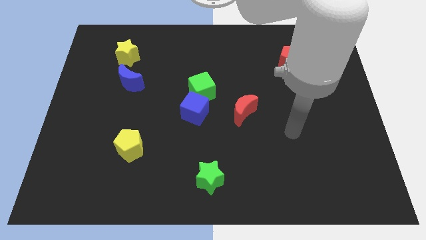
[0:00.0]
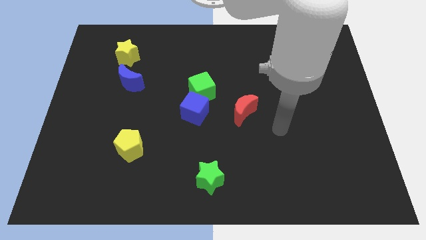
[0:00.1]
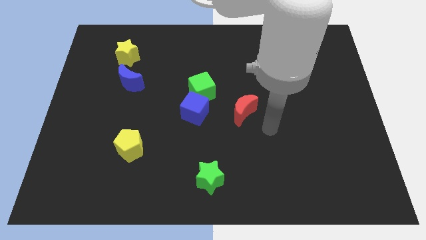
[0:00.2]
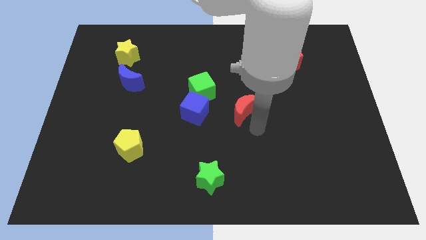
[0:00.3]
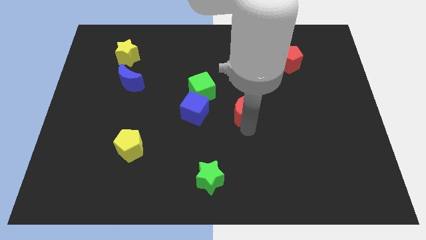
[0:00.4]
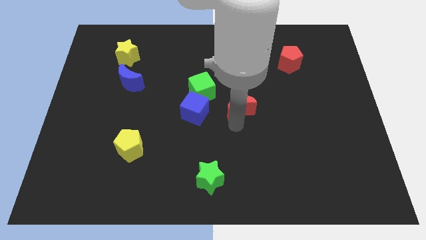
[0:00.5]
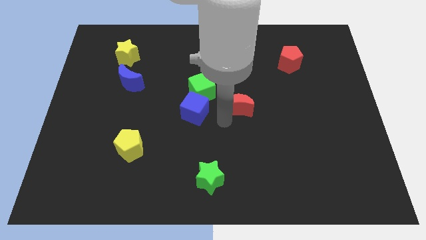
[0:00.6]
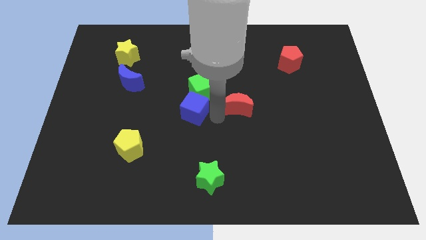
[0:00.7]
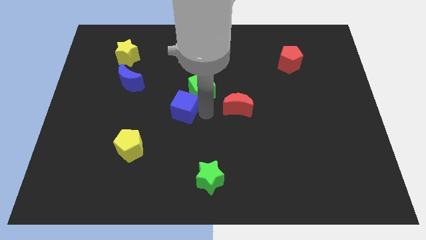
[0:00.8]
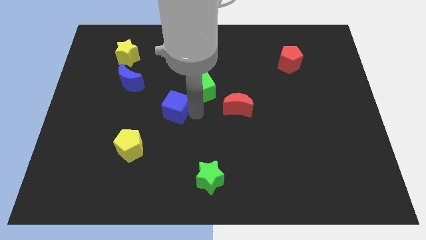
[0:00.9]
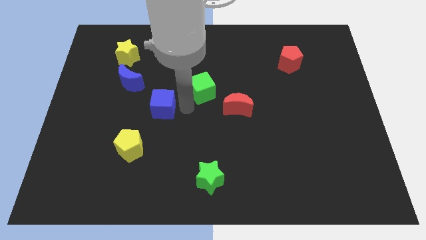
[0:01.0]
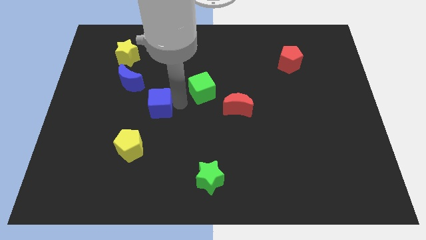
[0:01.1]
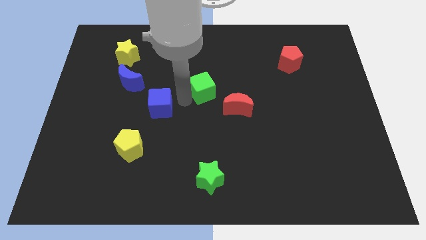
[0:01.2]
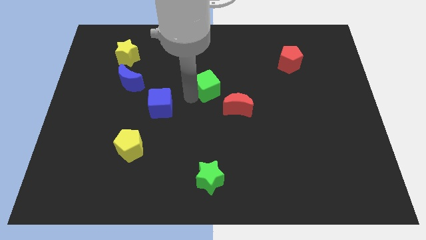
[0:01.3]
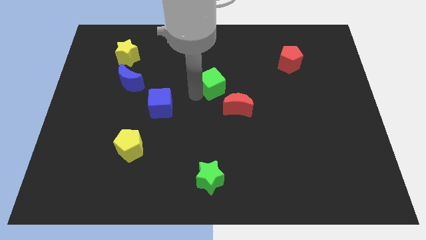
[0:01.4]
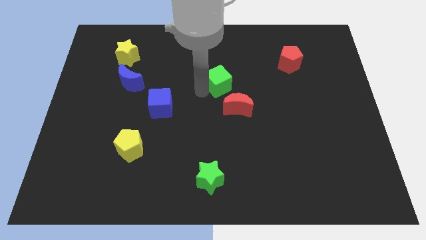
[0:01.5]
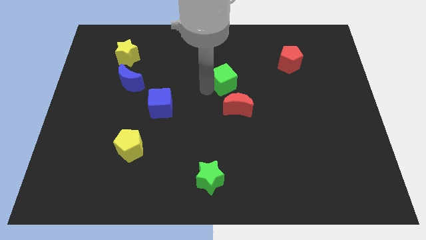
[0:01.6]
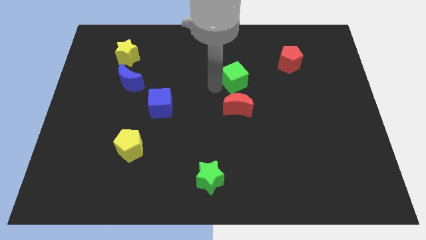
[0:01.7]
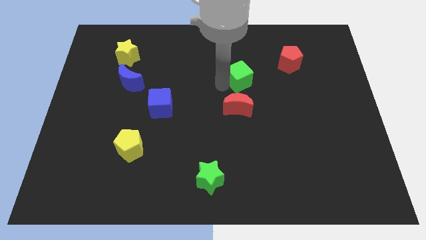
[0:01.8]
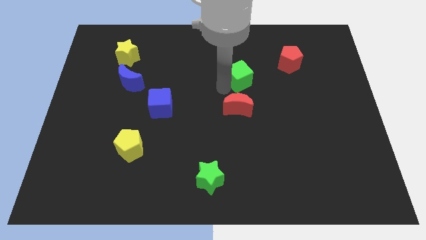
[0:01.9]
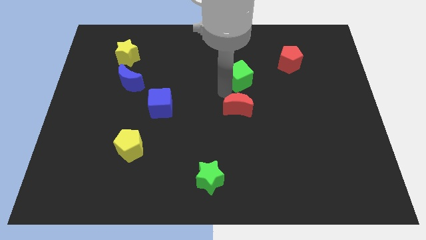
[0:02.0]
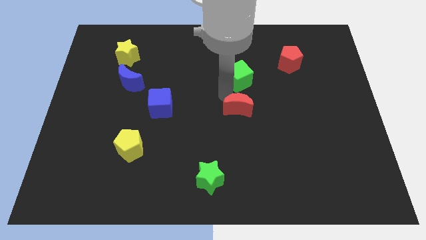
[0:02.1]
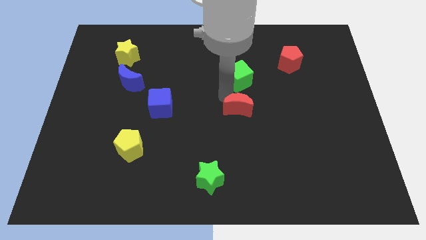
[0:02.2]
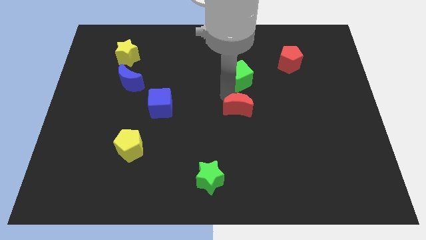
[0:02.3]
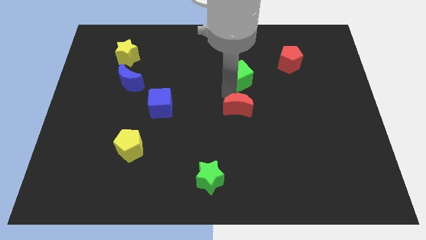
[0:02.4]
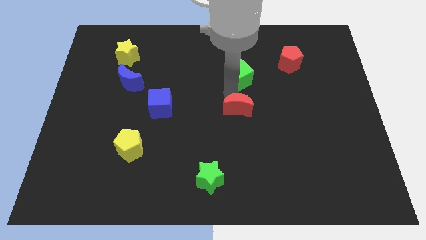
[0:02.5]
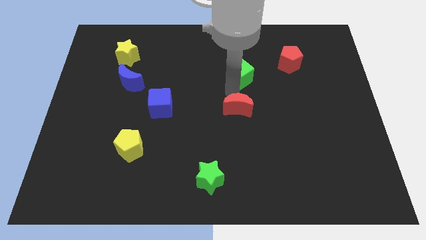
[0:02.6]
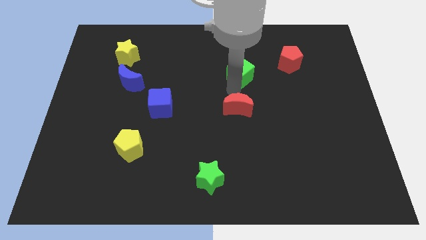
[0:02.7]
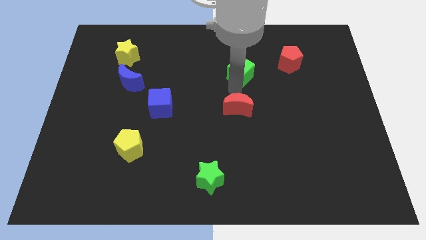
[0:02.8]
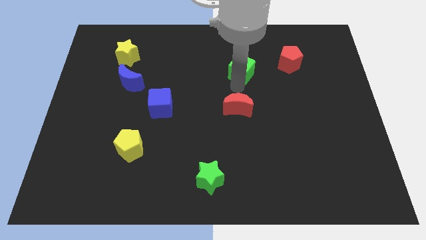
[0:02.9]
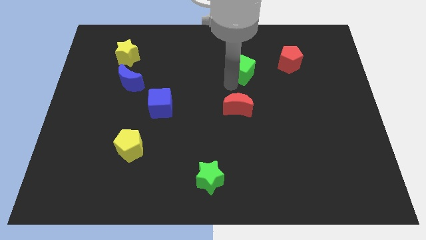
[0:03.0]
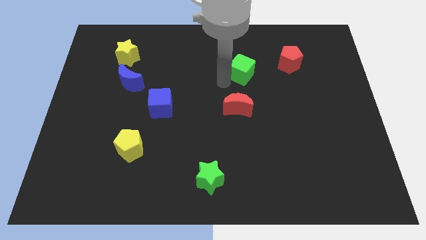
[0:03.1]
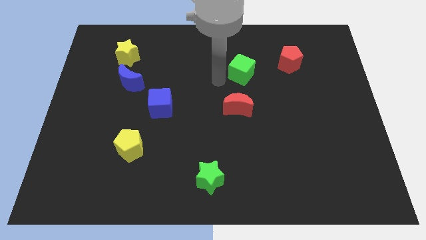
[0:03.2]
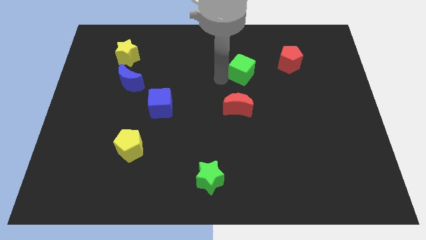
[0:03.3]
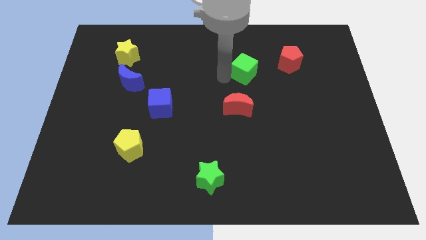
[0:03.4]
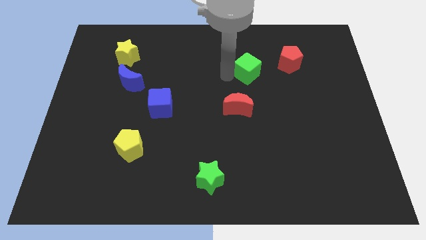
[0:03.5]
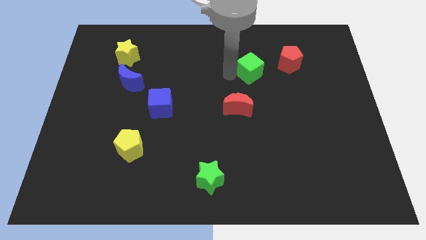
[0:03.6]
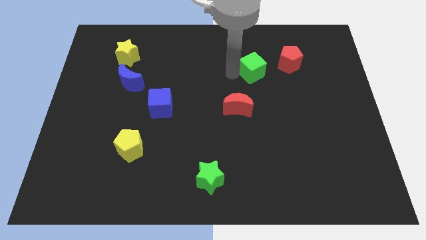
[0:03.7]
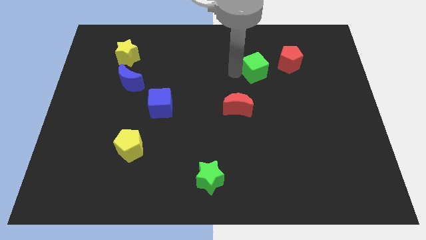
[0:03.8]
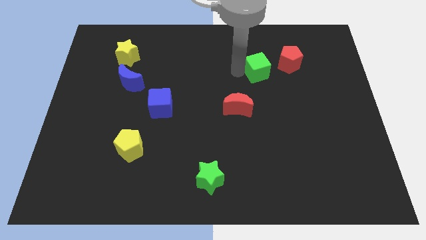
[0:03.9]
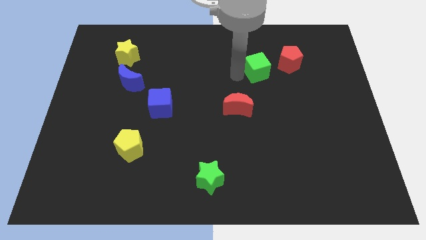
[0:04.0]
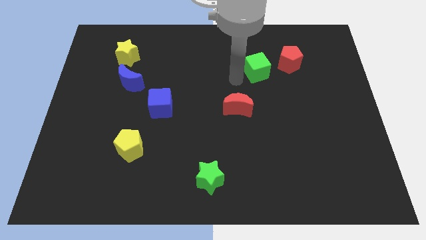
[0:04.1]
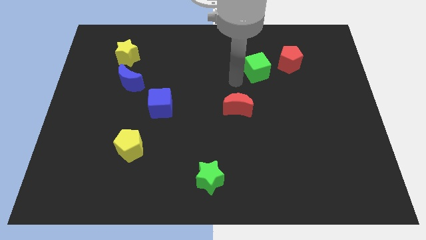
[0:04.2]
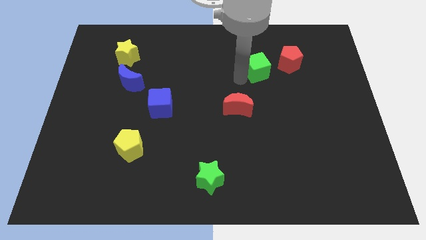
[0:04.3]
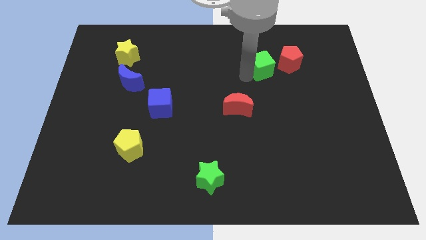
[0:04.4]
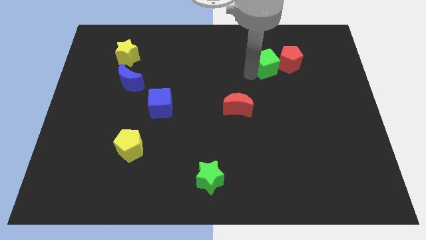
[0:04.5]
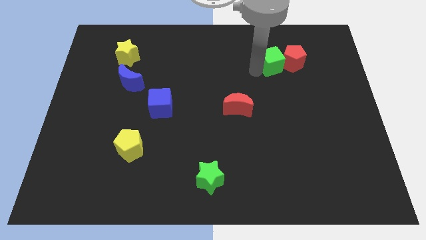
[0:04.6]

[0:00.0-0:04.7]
move the green cube to the red pentagon

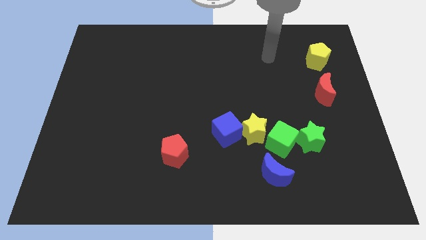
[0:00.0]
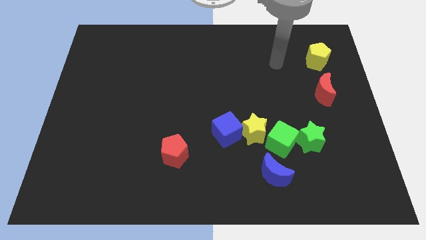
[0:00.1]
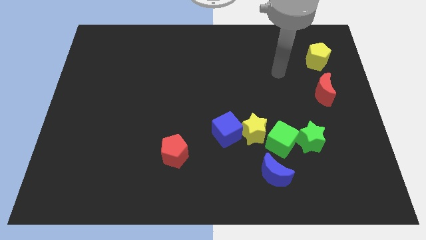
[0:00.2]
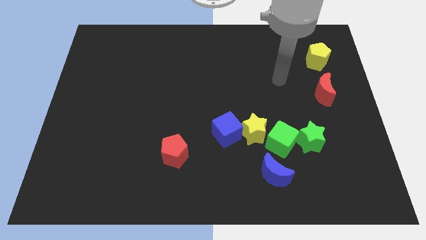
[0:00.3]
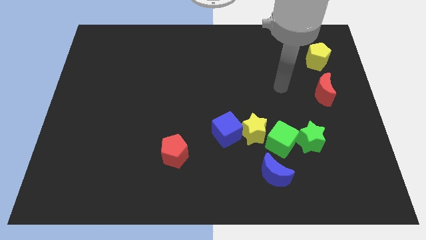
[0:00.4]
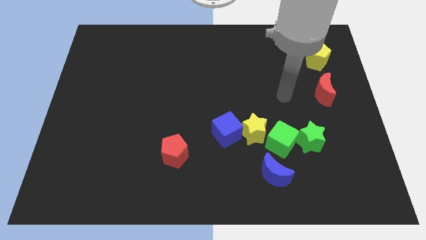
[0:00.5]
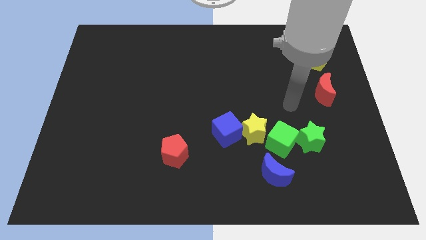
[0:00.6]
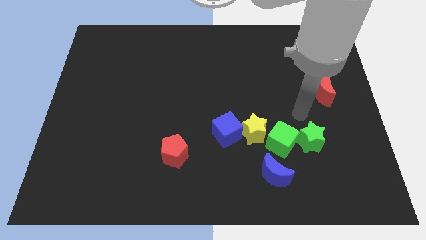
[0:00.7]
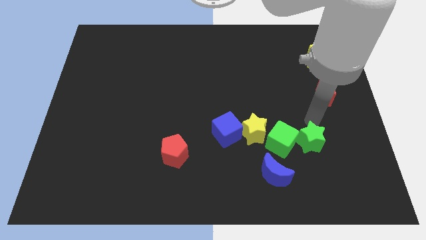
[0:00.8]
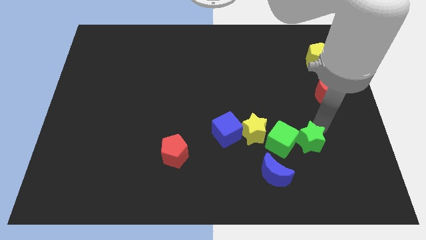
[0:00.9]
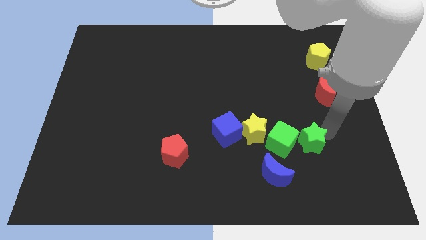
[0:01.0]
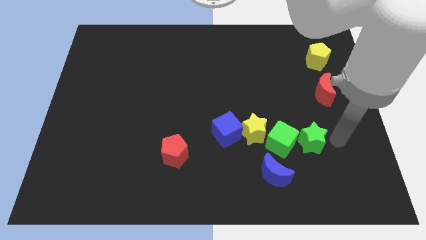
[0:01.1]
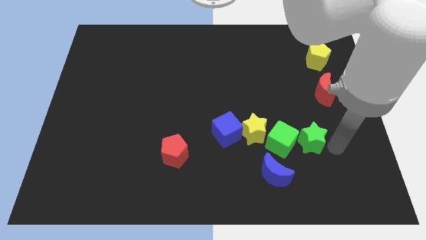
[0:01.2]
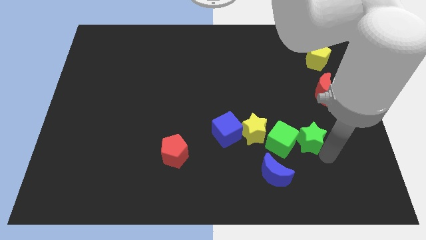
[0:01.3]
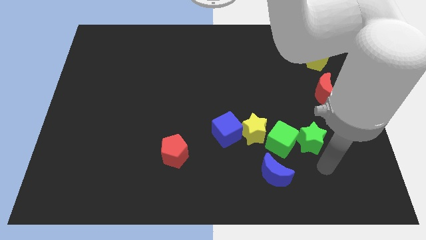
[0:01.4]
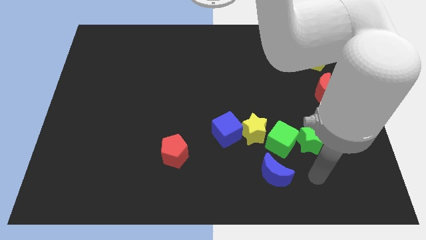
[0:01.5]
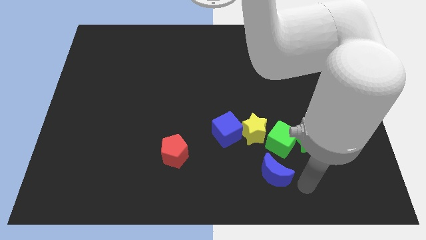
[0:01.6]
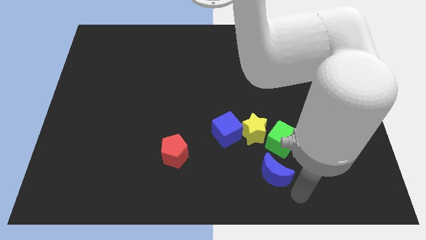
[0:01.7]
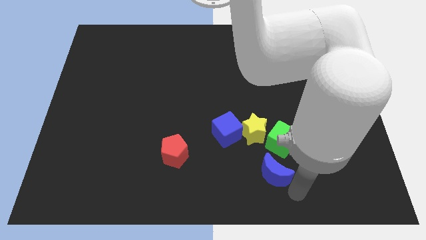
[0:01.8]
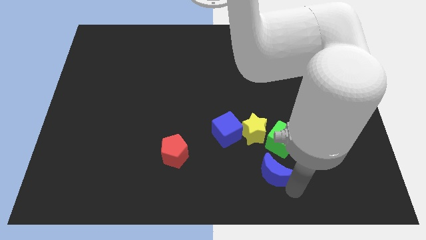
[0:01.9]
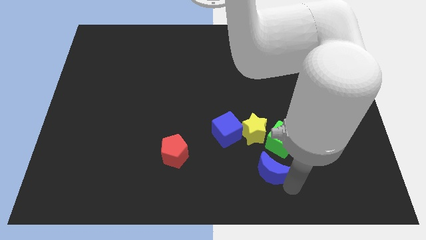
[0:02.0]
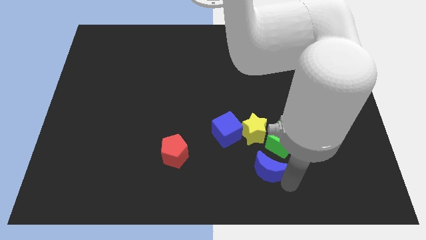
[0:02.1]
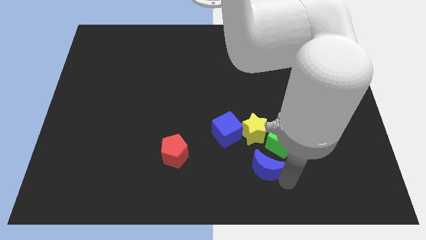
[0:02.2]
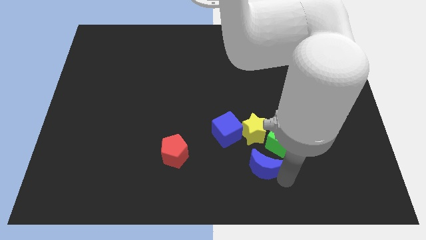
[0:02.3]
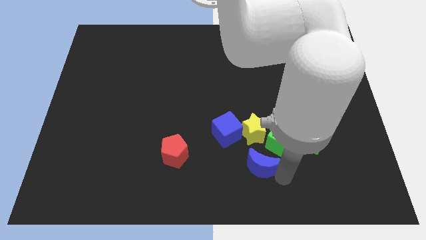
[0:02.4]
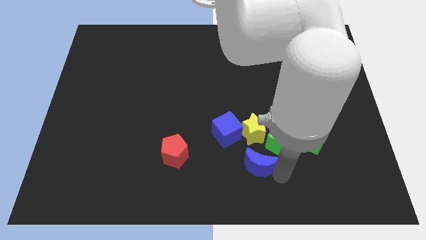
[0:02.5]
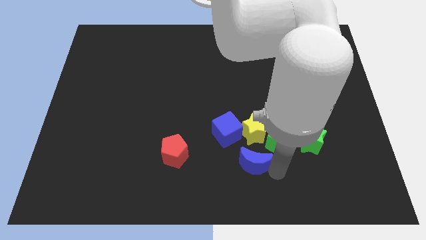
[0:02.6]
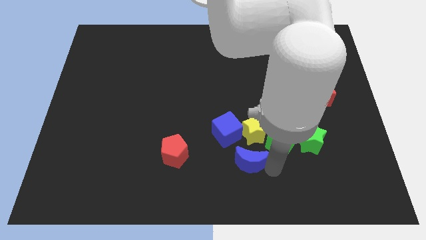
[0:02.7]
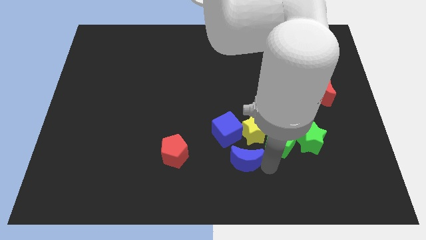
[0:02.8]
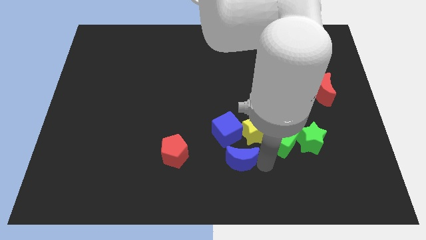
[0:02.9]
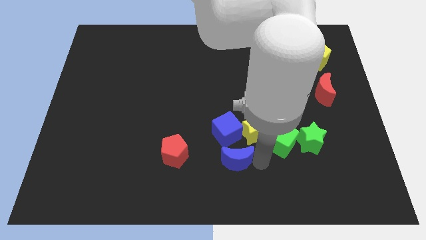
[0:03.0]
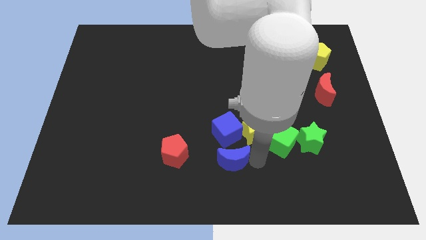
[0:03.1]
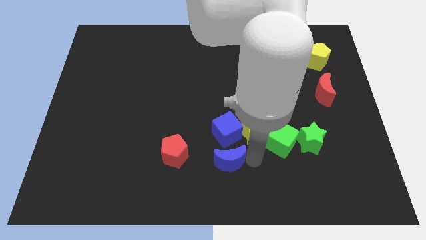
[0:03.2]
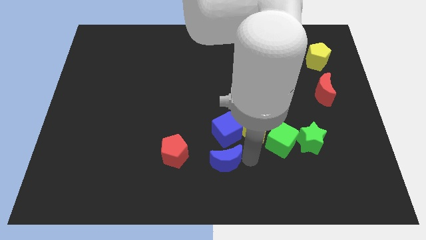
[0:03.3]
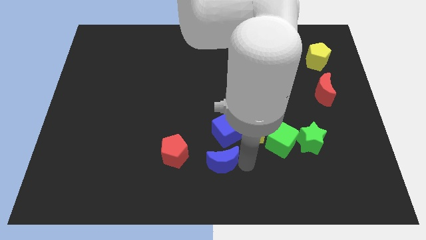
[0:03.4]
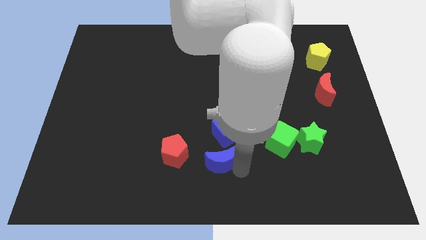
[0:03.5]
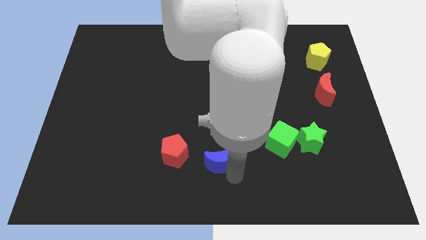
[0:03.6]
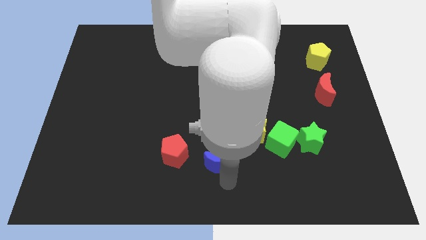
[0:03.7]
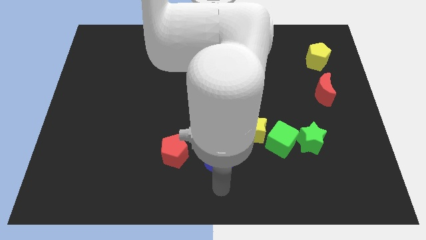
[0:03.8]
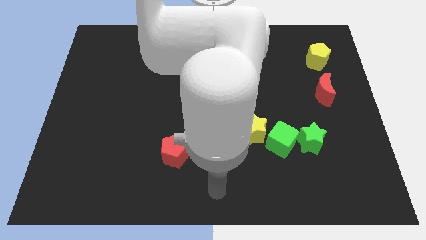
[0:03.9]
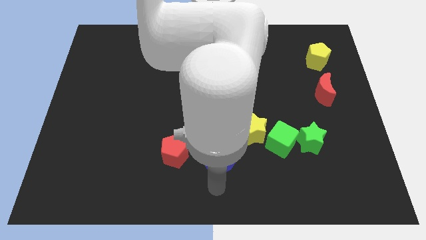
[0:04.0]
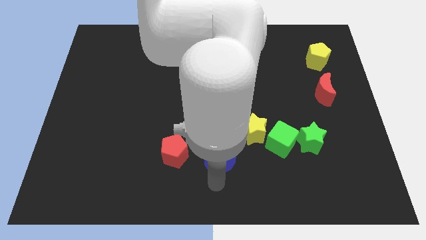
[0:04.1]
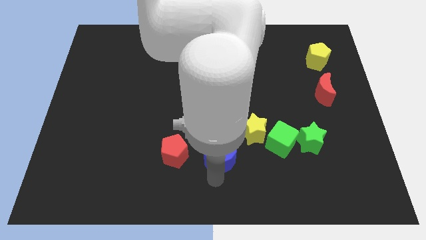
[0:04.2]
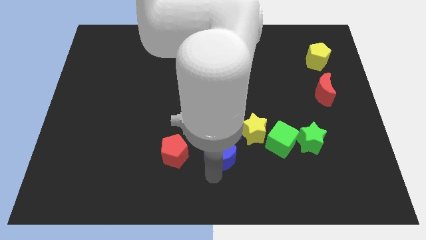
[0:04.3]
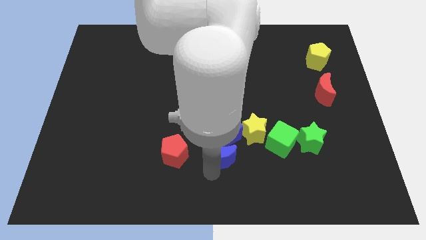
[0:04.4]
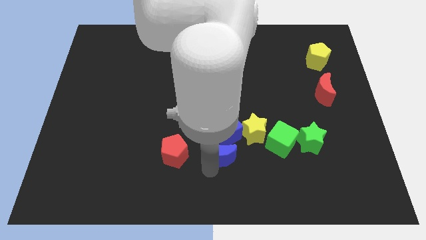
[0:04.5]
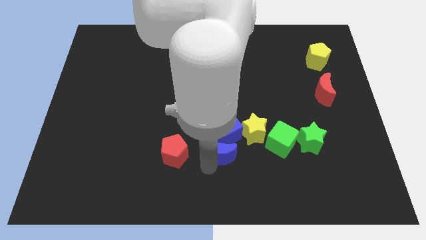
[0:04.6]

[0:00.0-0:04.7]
push the blue moon towards the blue cube
